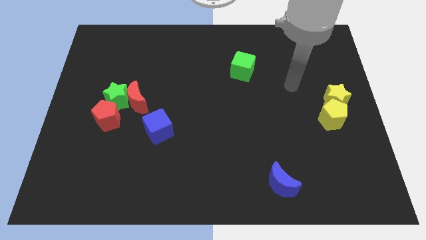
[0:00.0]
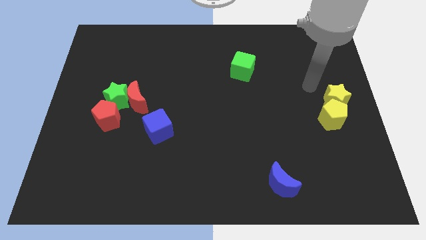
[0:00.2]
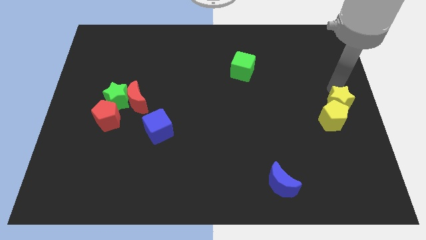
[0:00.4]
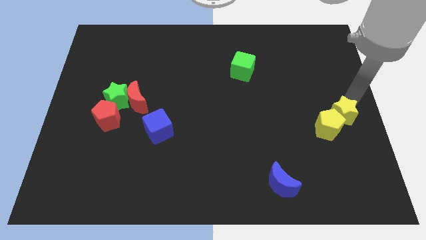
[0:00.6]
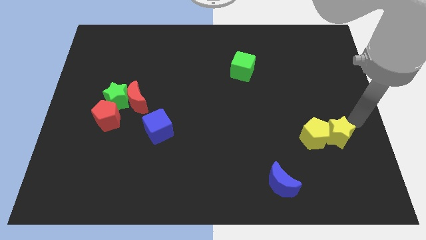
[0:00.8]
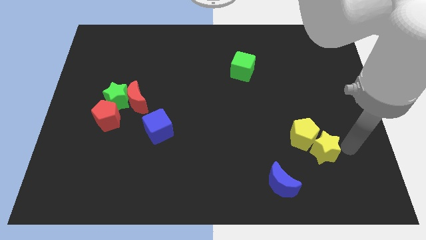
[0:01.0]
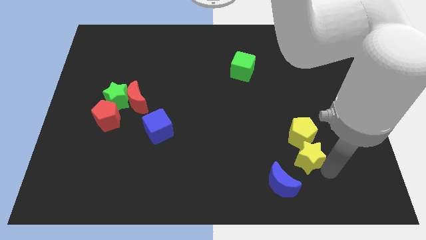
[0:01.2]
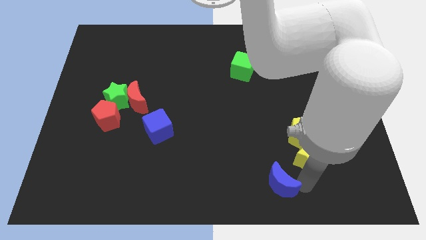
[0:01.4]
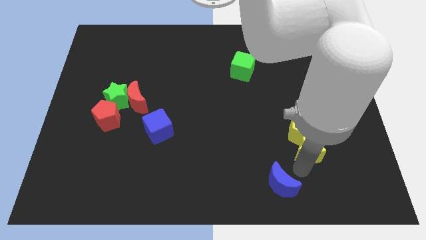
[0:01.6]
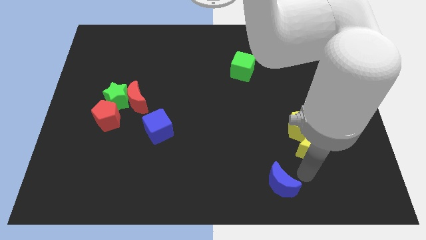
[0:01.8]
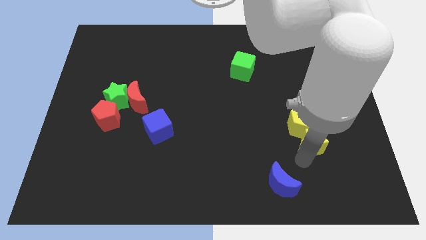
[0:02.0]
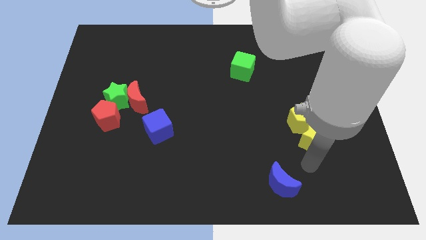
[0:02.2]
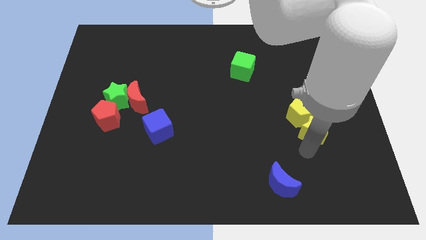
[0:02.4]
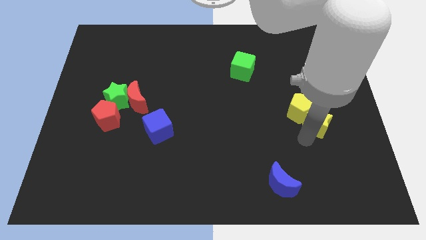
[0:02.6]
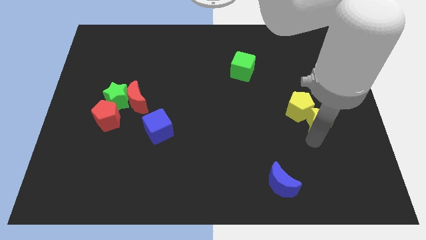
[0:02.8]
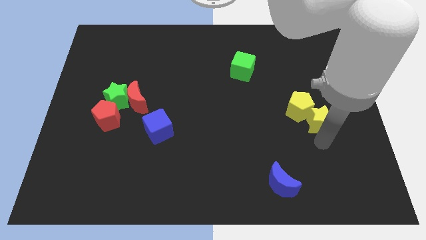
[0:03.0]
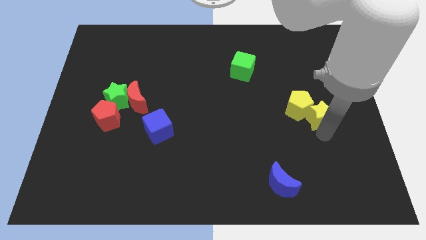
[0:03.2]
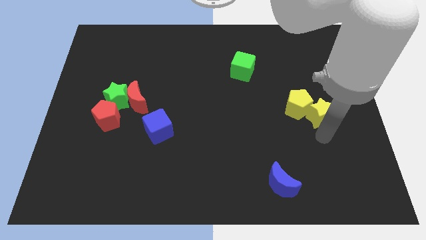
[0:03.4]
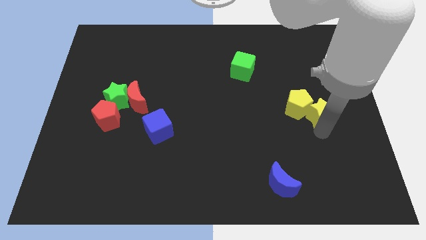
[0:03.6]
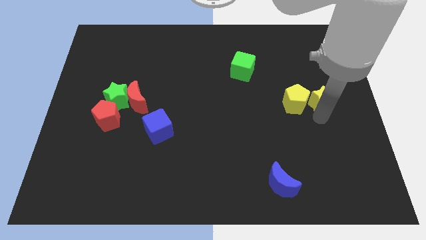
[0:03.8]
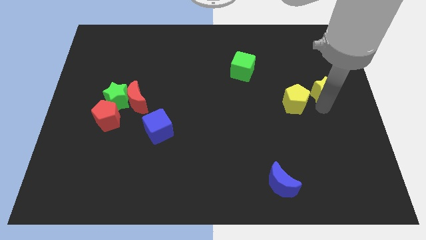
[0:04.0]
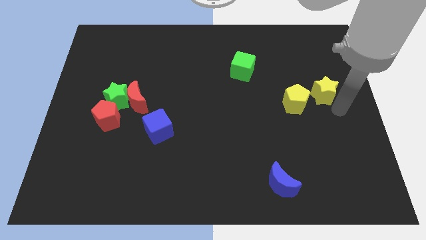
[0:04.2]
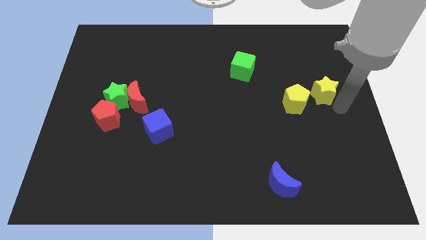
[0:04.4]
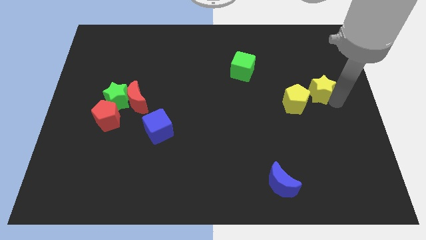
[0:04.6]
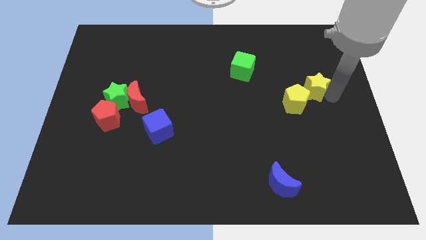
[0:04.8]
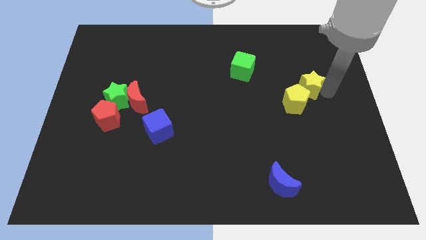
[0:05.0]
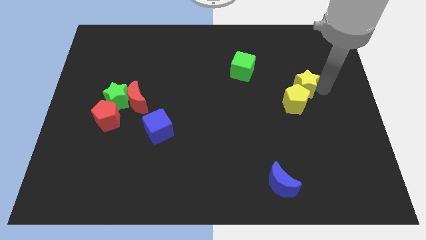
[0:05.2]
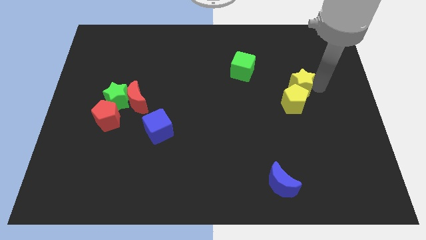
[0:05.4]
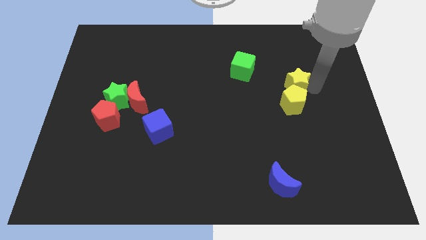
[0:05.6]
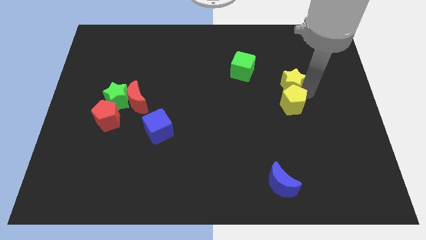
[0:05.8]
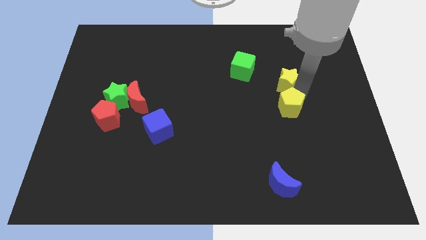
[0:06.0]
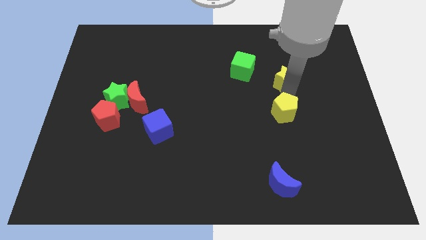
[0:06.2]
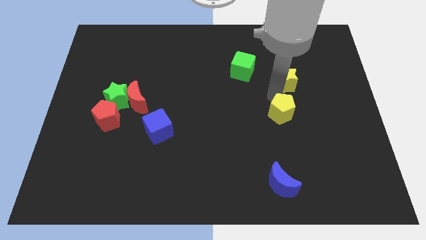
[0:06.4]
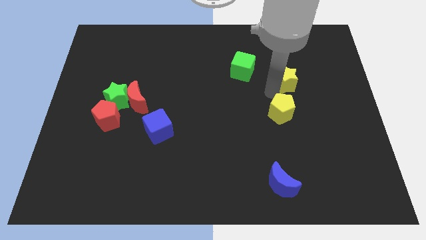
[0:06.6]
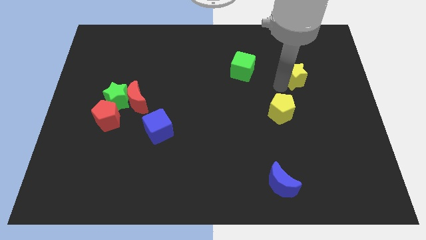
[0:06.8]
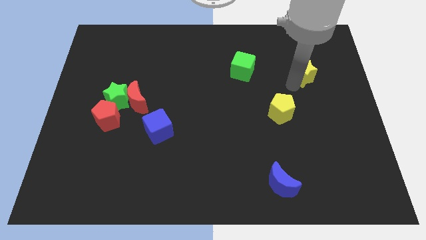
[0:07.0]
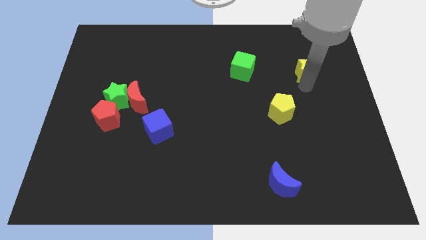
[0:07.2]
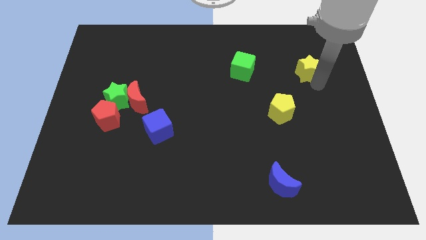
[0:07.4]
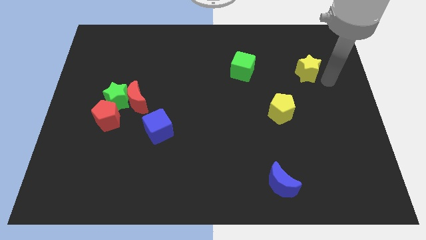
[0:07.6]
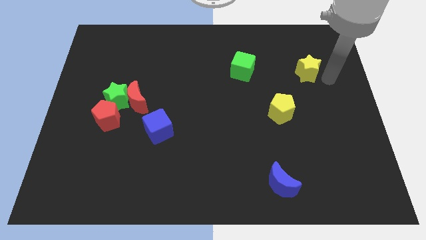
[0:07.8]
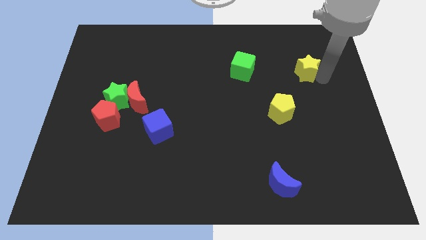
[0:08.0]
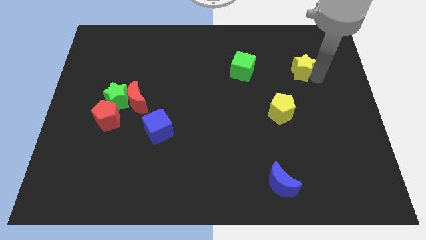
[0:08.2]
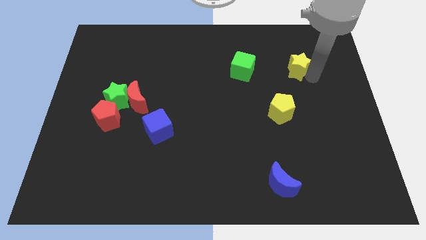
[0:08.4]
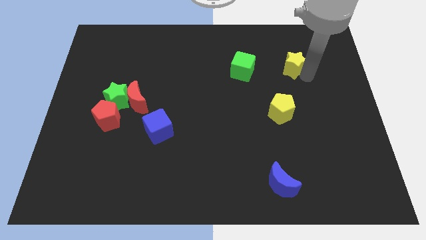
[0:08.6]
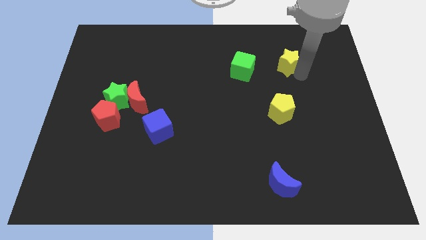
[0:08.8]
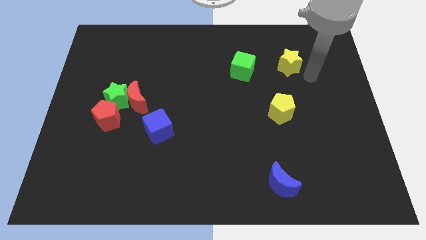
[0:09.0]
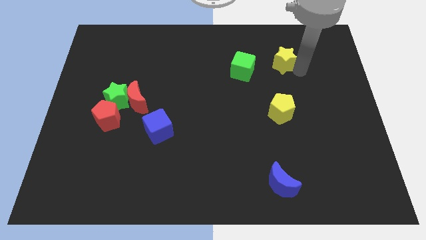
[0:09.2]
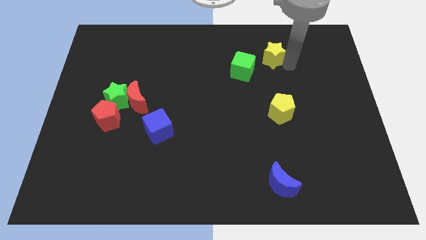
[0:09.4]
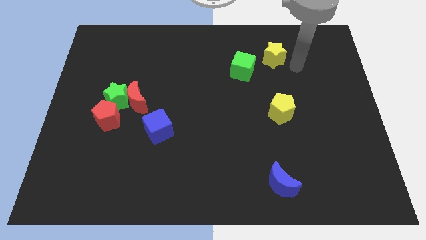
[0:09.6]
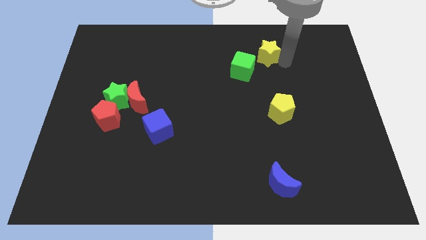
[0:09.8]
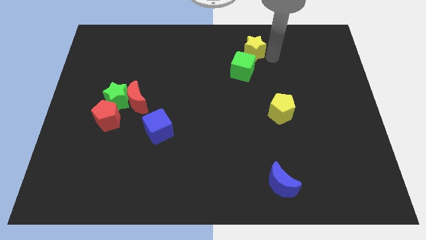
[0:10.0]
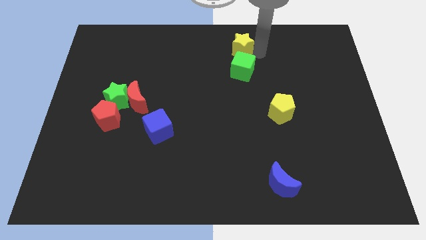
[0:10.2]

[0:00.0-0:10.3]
put the yellow star to the towards your base

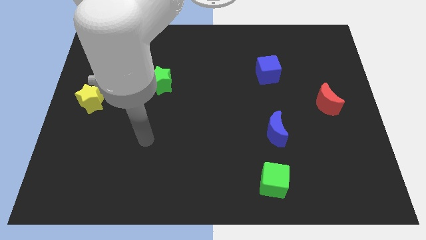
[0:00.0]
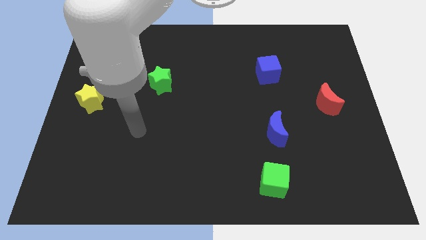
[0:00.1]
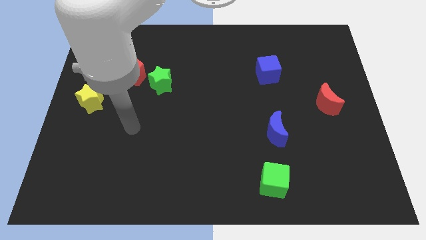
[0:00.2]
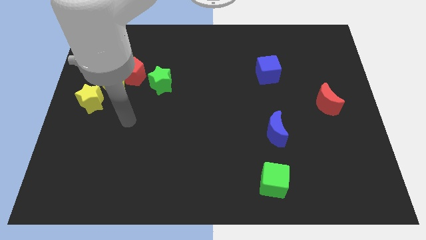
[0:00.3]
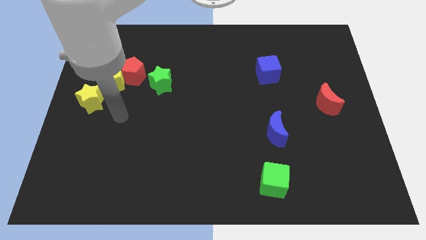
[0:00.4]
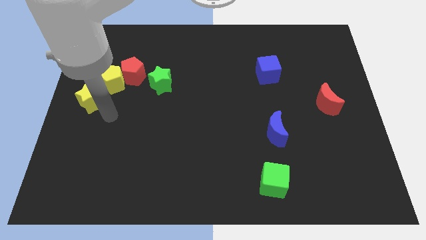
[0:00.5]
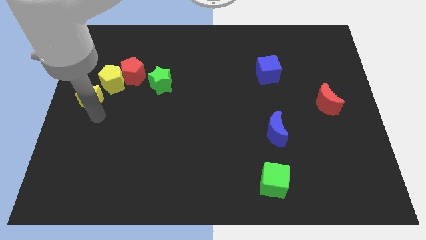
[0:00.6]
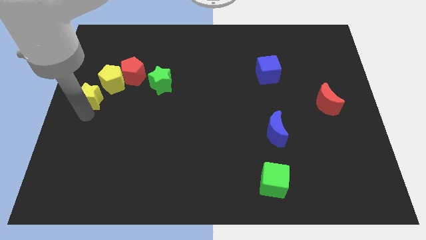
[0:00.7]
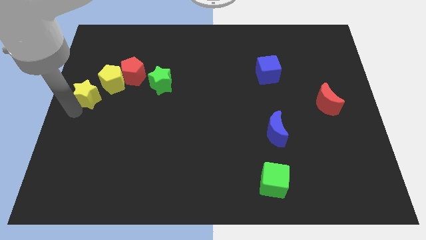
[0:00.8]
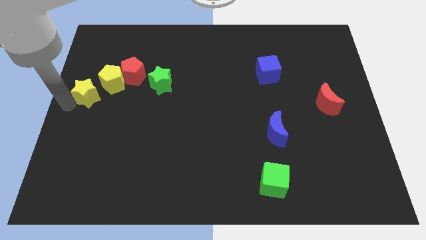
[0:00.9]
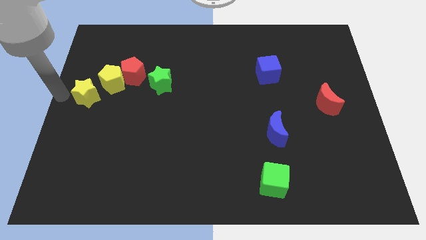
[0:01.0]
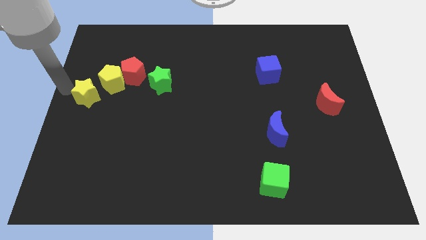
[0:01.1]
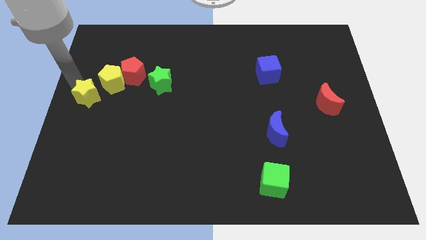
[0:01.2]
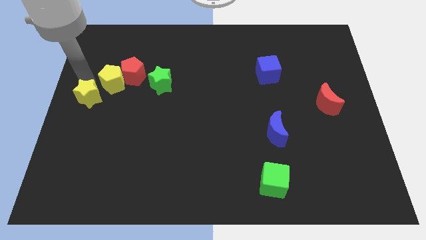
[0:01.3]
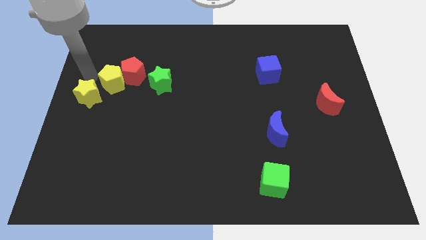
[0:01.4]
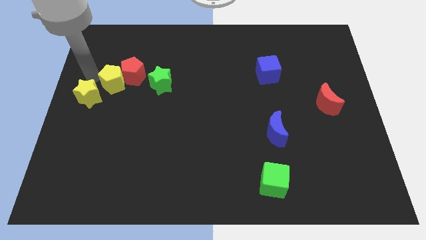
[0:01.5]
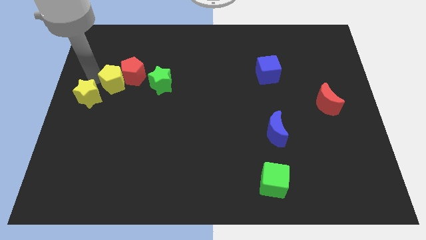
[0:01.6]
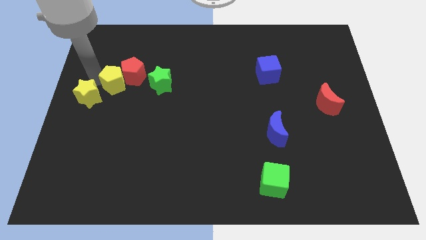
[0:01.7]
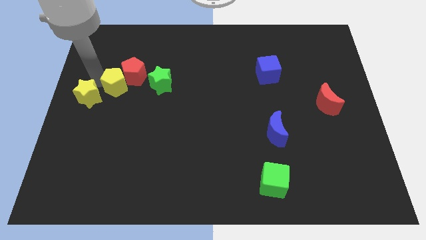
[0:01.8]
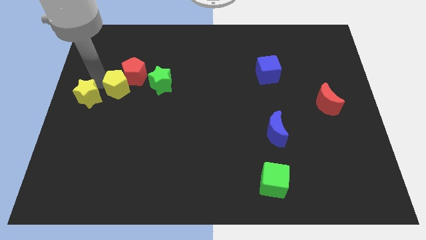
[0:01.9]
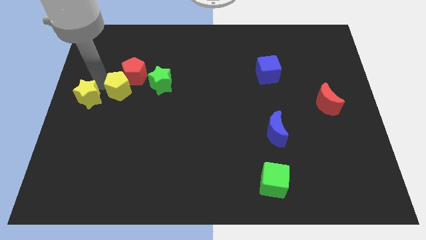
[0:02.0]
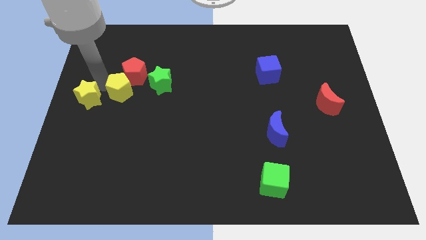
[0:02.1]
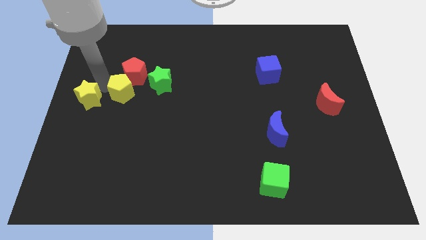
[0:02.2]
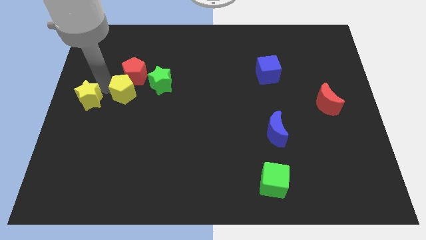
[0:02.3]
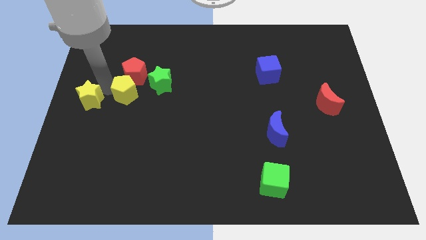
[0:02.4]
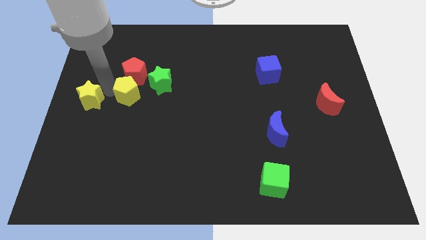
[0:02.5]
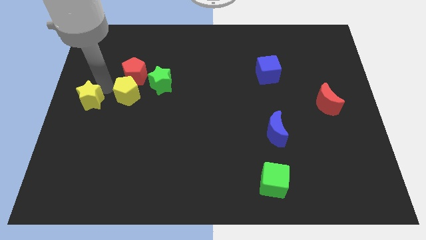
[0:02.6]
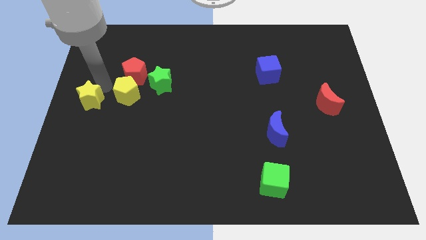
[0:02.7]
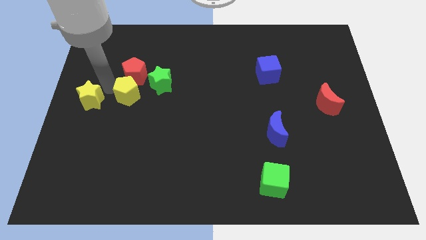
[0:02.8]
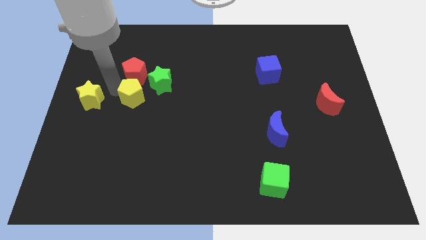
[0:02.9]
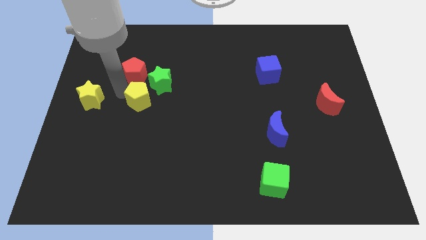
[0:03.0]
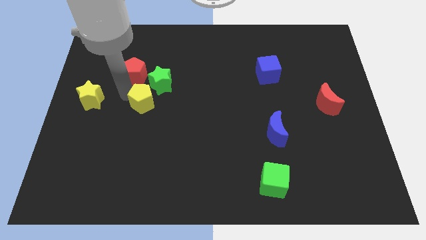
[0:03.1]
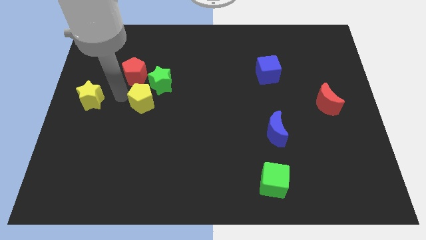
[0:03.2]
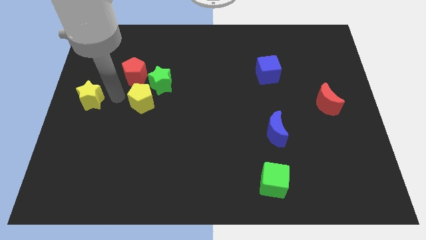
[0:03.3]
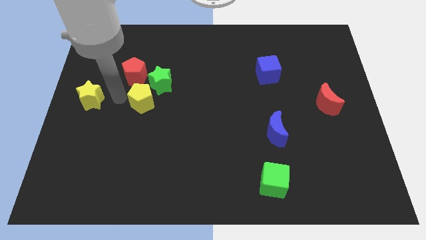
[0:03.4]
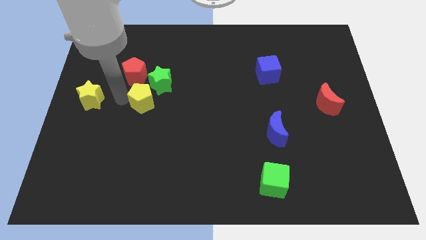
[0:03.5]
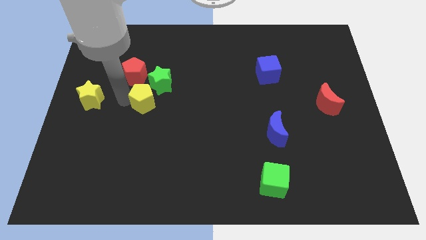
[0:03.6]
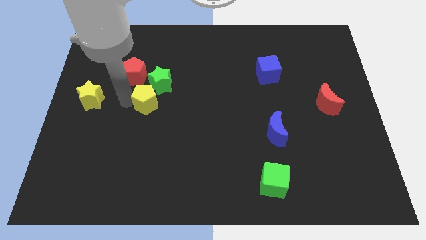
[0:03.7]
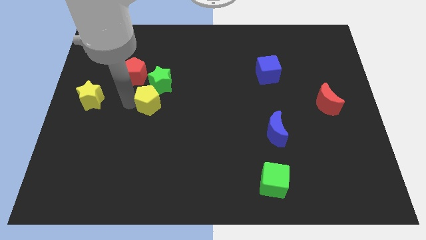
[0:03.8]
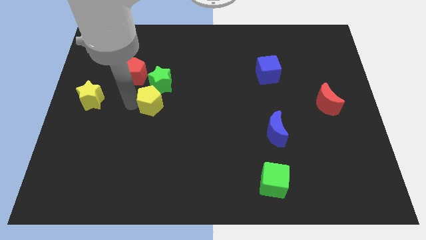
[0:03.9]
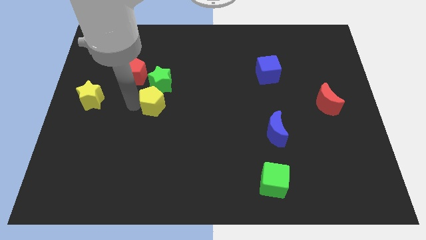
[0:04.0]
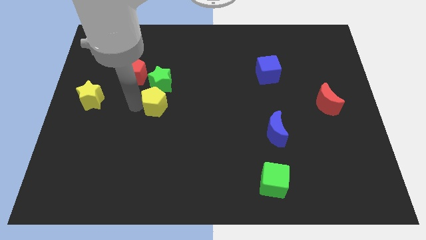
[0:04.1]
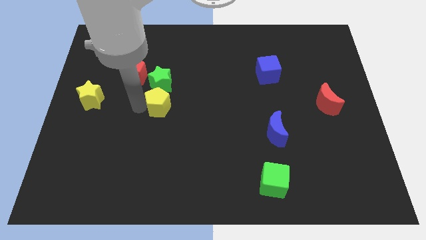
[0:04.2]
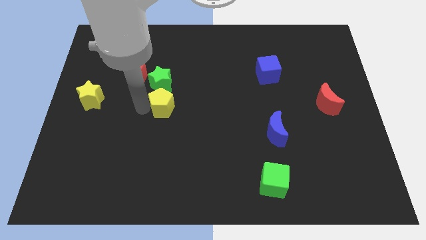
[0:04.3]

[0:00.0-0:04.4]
slide the yellow pentagon to the center of the board
